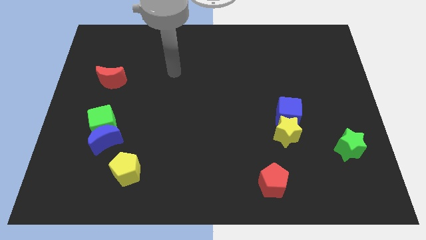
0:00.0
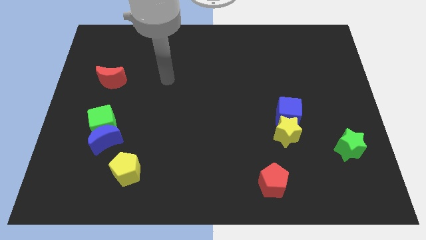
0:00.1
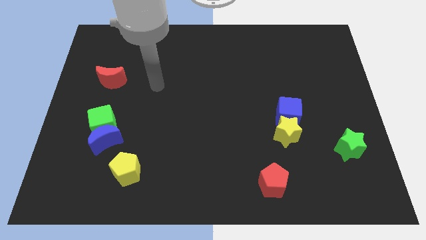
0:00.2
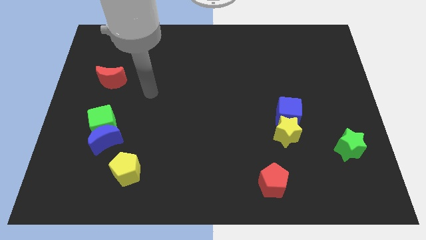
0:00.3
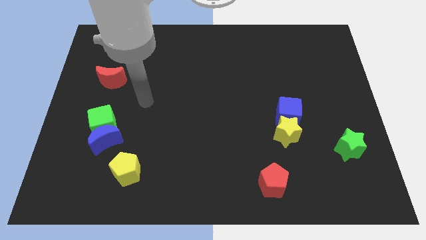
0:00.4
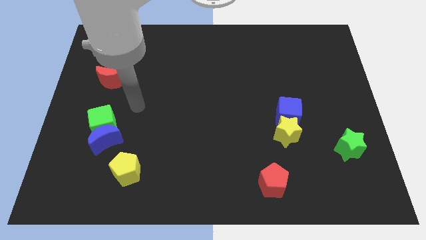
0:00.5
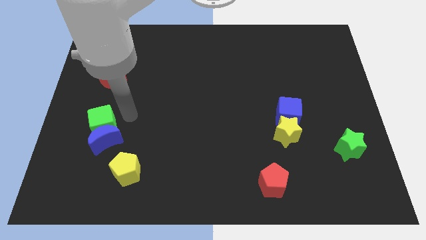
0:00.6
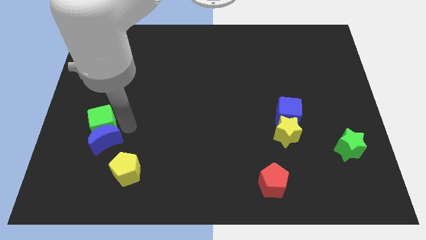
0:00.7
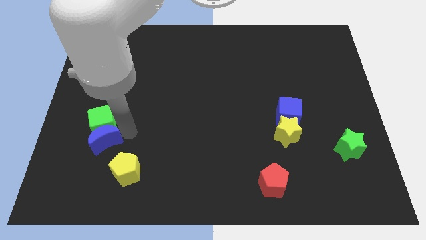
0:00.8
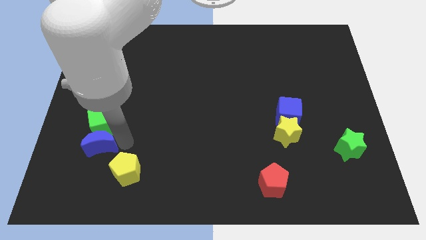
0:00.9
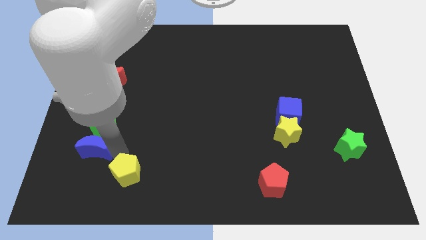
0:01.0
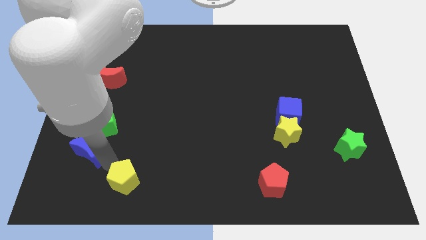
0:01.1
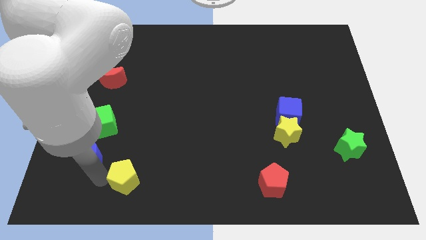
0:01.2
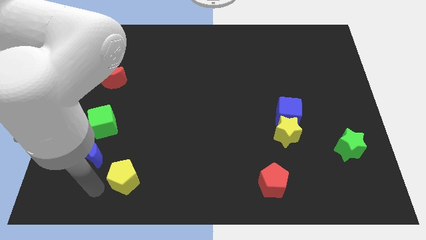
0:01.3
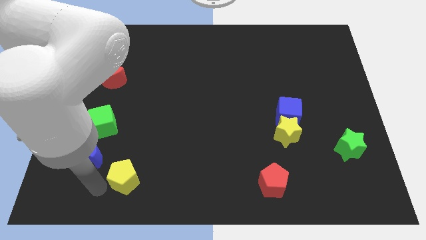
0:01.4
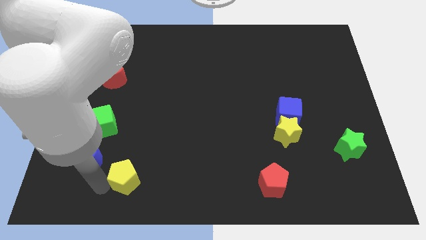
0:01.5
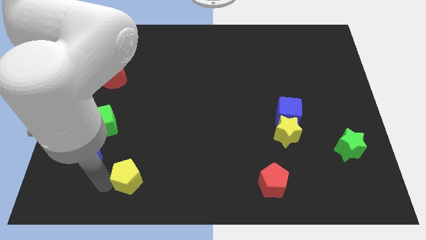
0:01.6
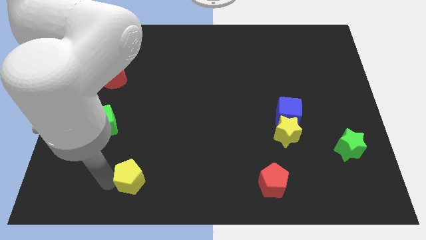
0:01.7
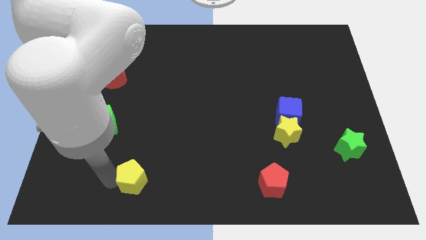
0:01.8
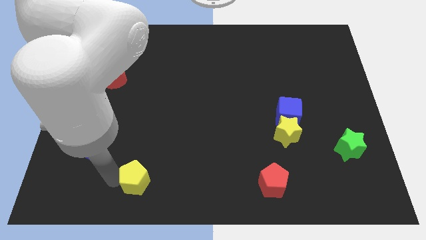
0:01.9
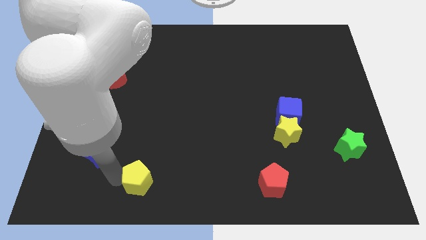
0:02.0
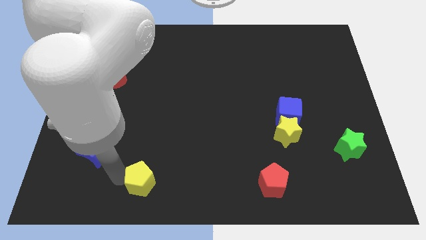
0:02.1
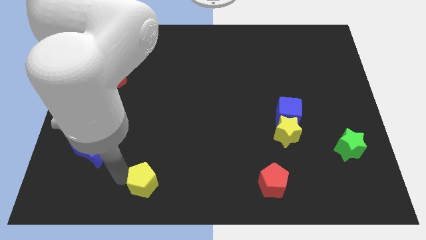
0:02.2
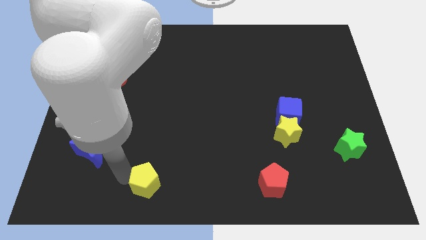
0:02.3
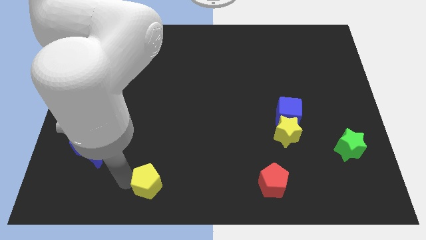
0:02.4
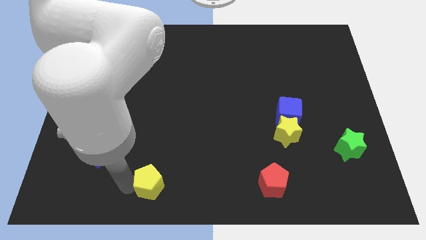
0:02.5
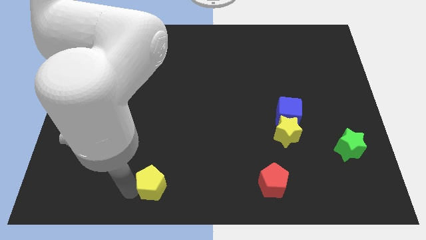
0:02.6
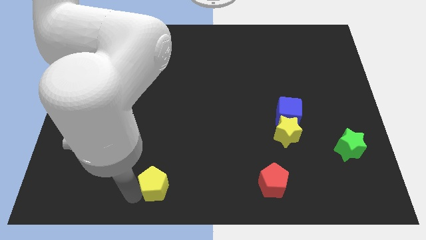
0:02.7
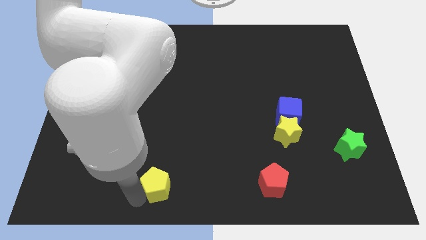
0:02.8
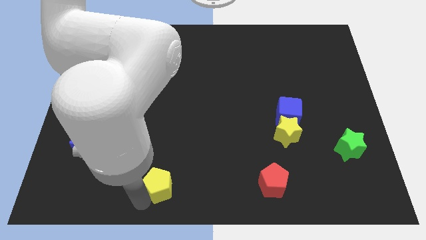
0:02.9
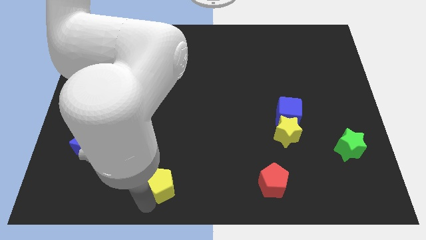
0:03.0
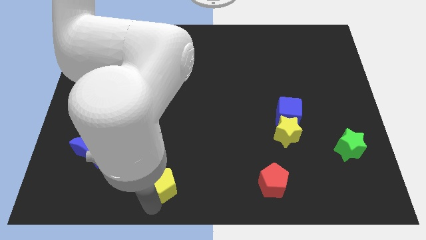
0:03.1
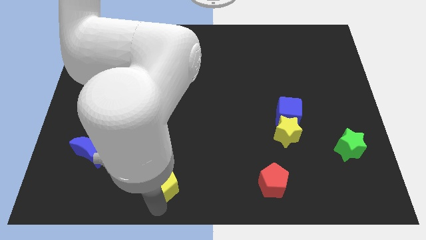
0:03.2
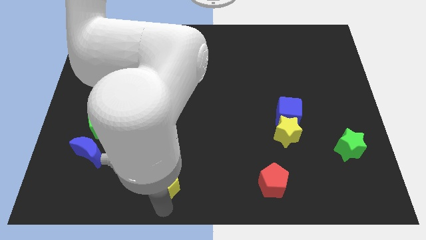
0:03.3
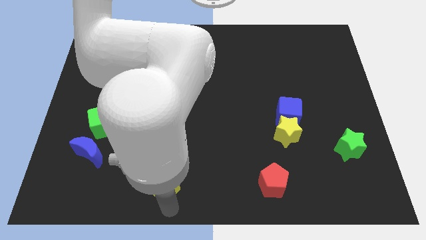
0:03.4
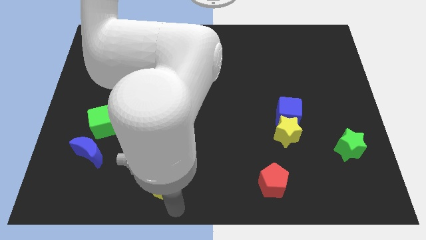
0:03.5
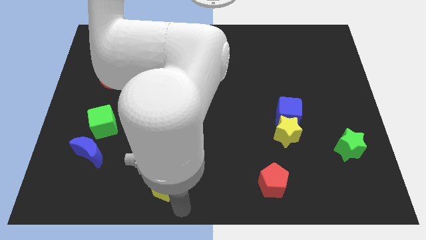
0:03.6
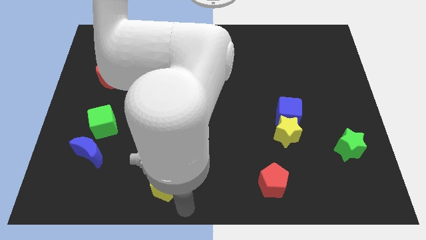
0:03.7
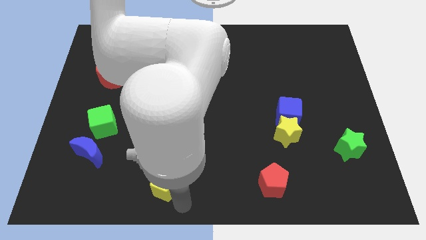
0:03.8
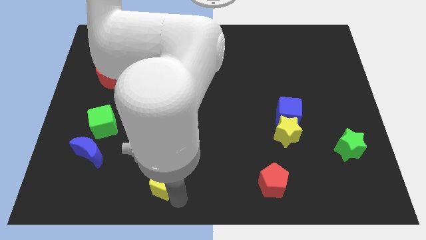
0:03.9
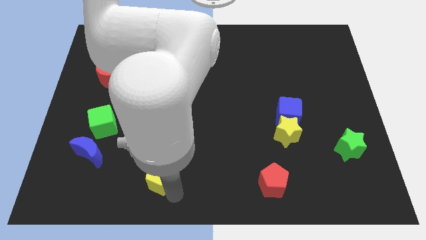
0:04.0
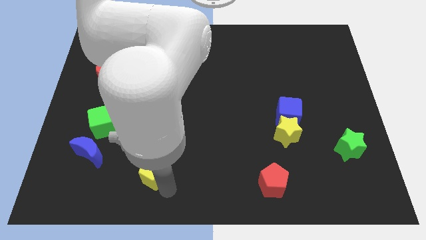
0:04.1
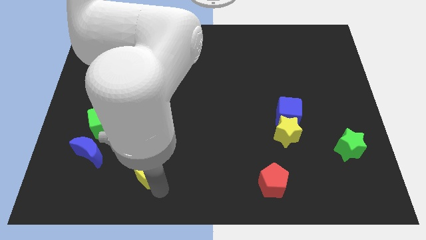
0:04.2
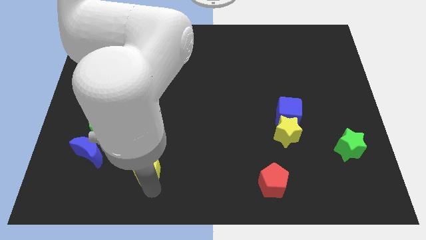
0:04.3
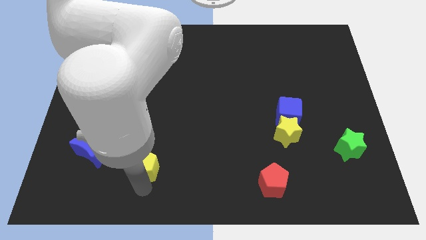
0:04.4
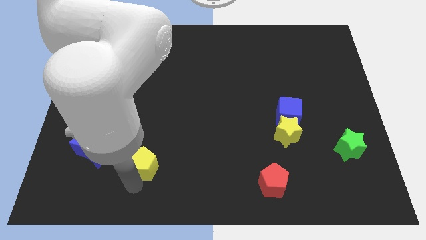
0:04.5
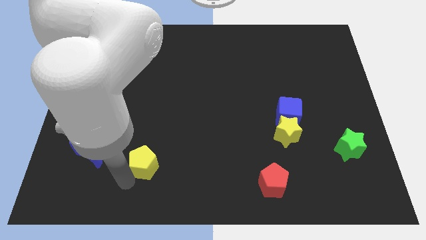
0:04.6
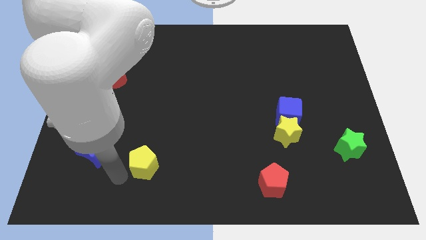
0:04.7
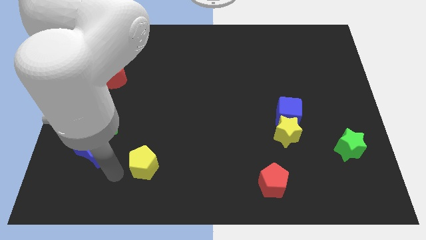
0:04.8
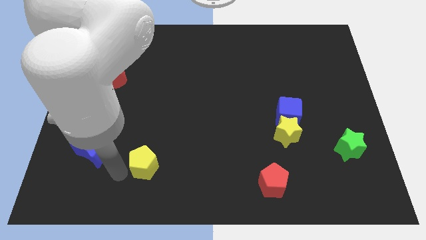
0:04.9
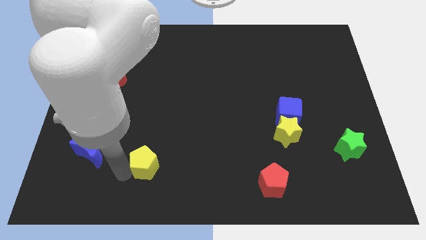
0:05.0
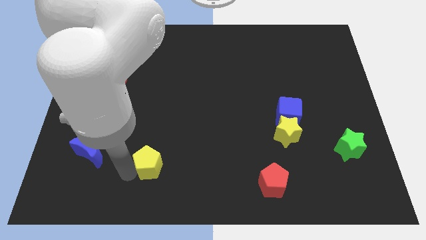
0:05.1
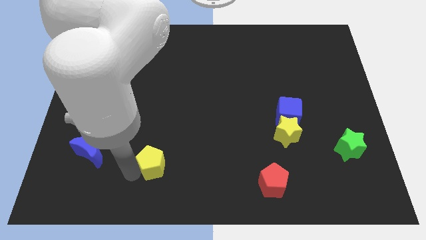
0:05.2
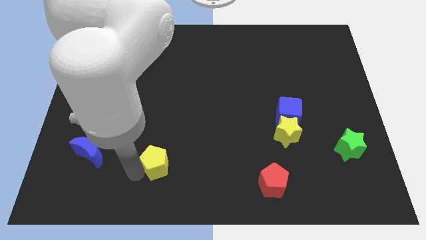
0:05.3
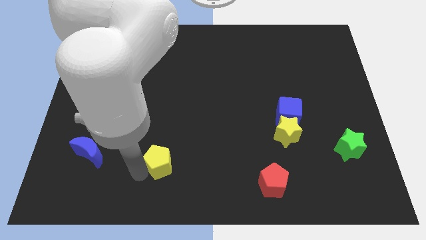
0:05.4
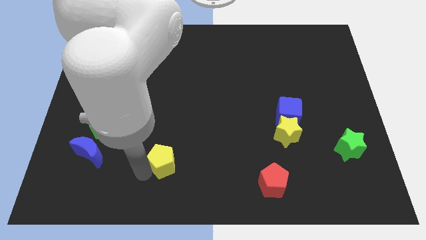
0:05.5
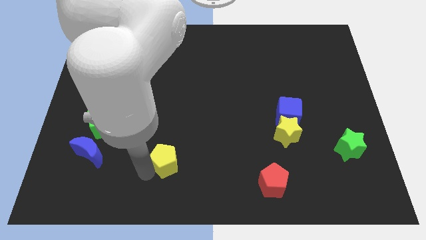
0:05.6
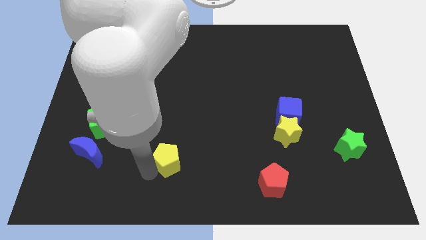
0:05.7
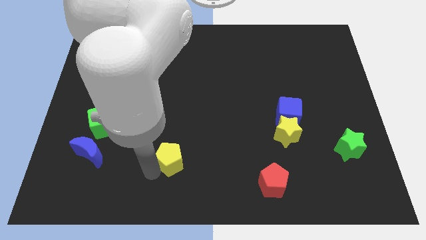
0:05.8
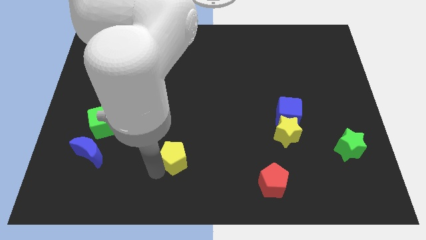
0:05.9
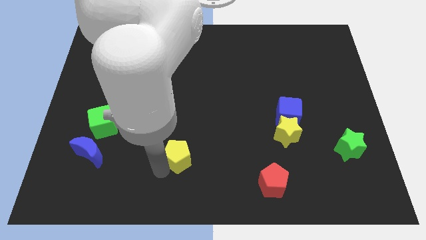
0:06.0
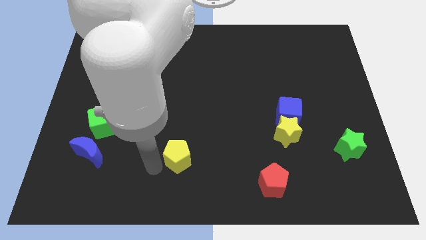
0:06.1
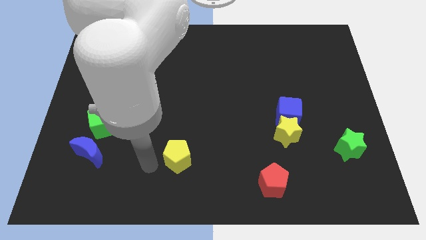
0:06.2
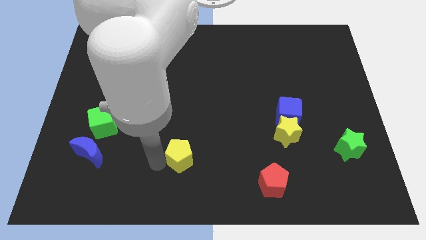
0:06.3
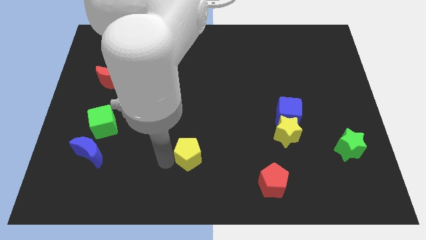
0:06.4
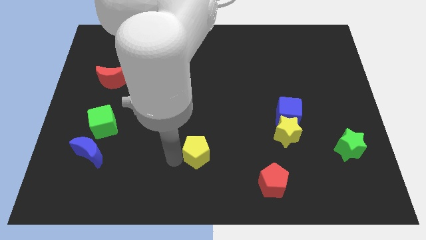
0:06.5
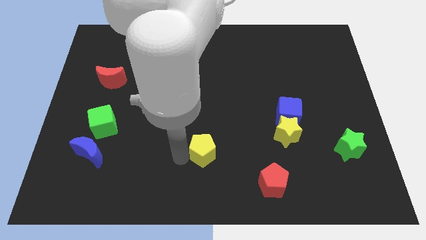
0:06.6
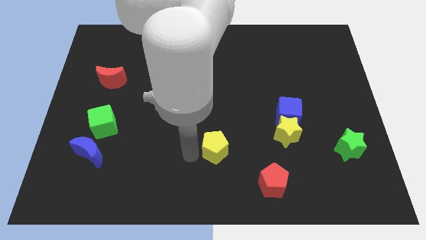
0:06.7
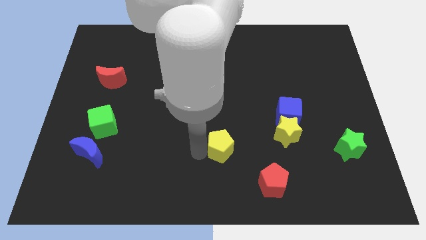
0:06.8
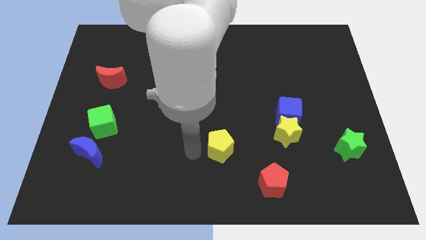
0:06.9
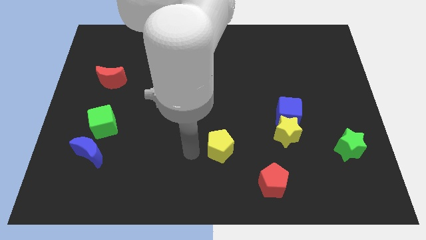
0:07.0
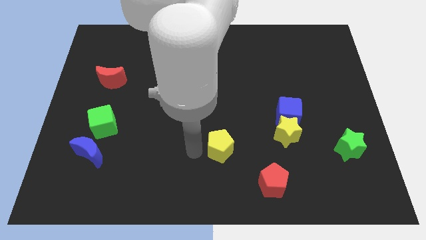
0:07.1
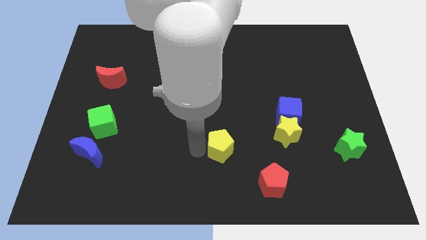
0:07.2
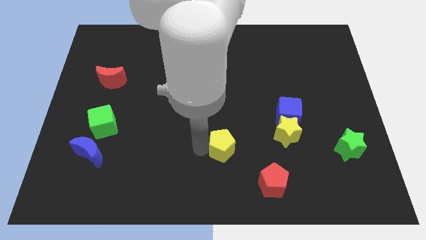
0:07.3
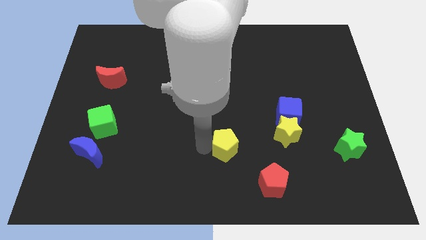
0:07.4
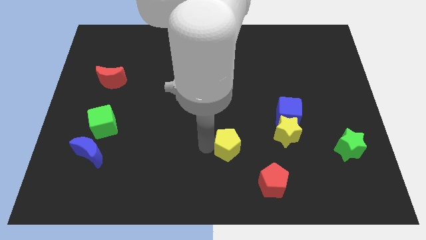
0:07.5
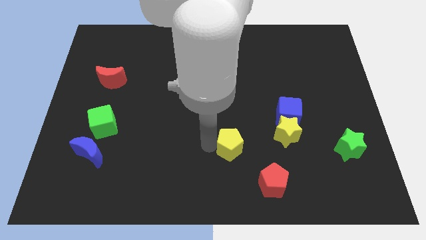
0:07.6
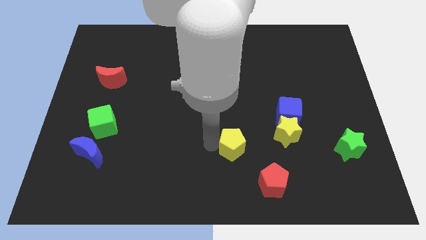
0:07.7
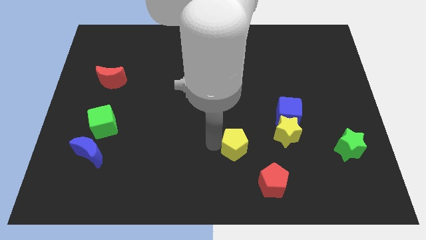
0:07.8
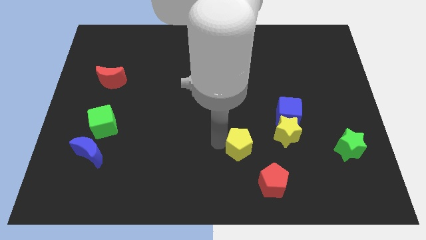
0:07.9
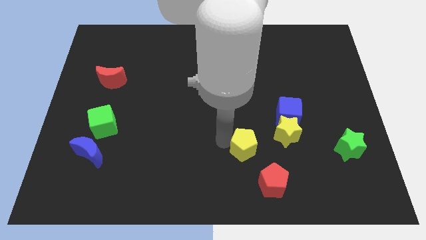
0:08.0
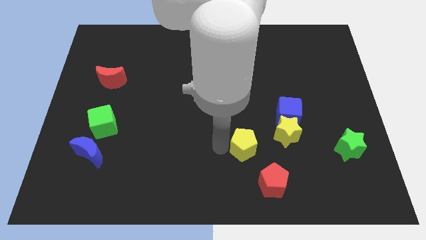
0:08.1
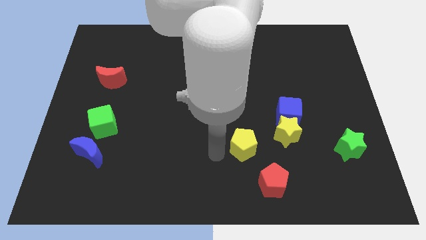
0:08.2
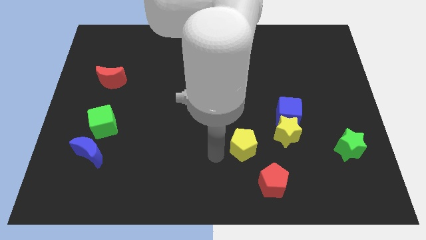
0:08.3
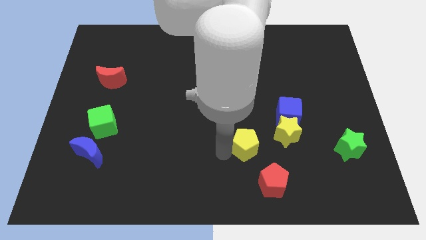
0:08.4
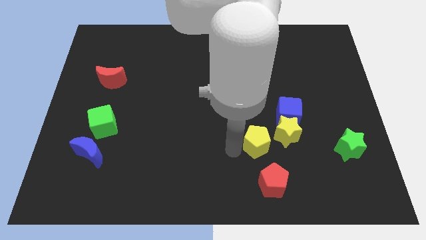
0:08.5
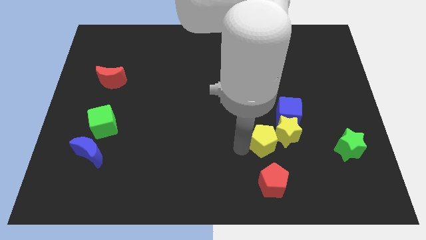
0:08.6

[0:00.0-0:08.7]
put the yellow pentagon towards the yellow star
